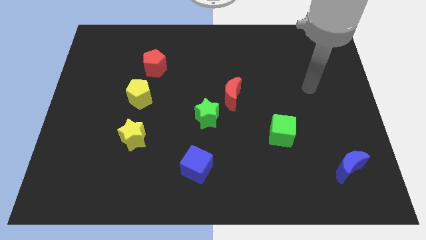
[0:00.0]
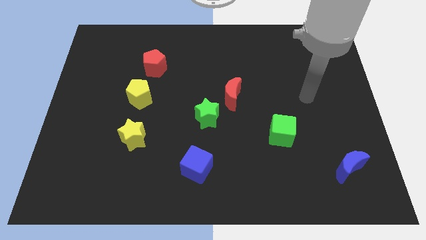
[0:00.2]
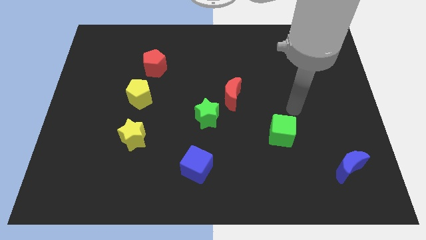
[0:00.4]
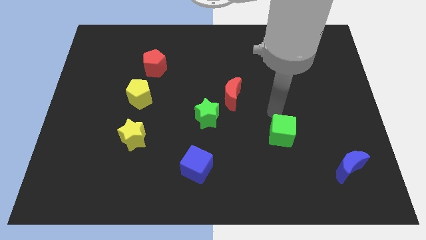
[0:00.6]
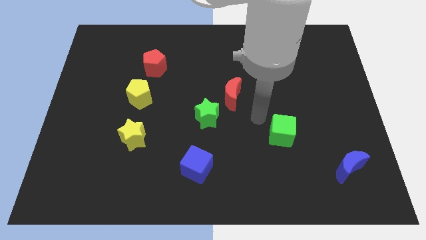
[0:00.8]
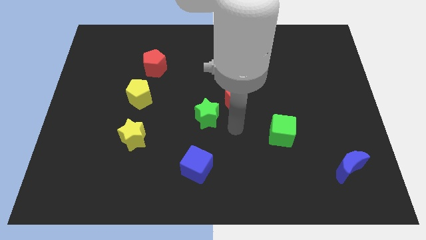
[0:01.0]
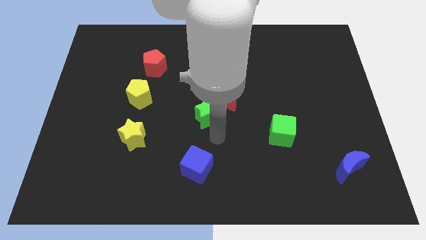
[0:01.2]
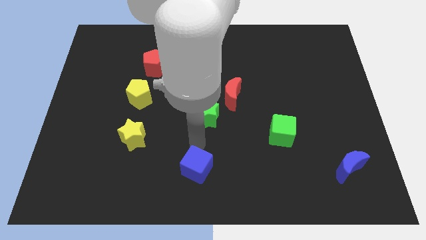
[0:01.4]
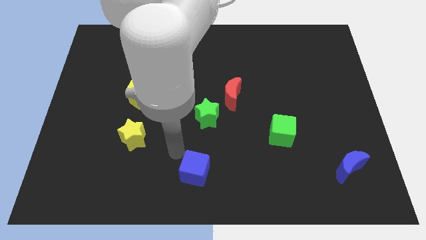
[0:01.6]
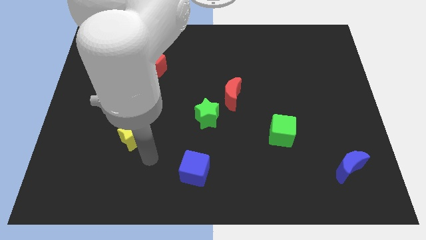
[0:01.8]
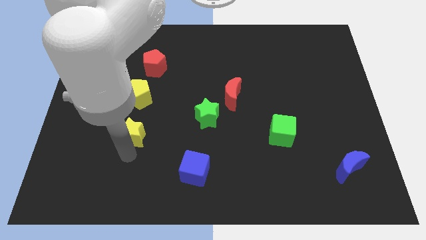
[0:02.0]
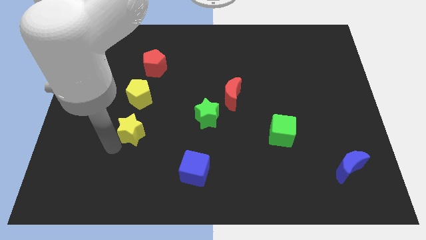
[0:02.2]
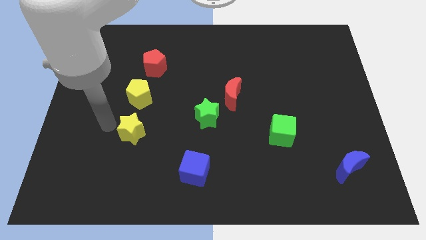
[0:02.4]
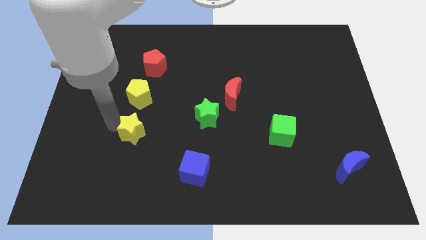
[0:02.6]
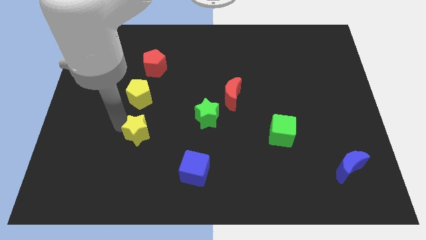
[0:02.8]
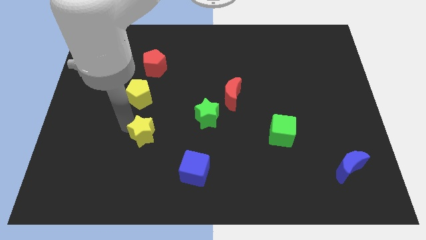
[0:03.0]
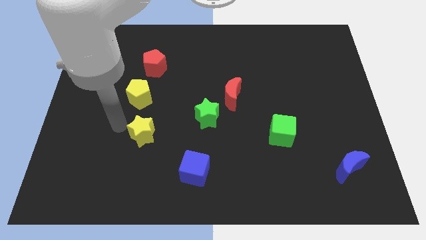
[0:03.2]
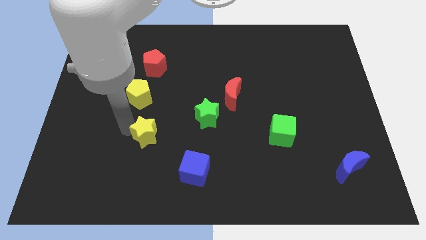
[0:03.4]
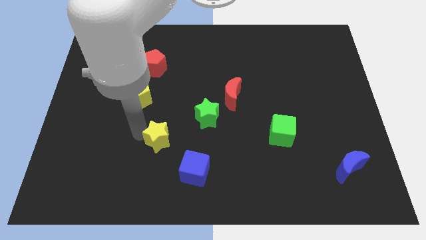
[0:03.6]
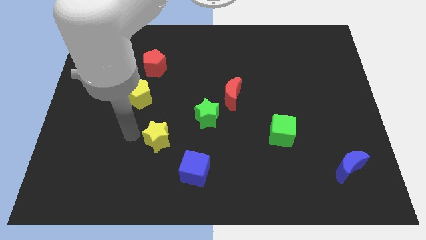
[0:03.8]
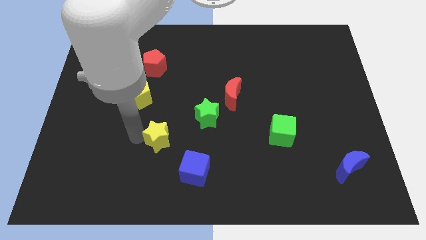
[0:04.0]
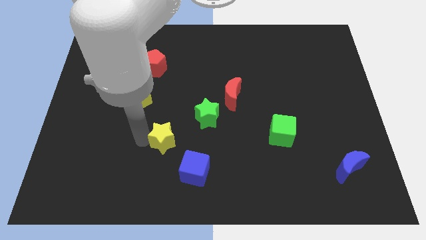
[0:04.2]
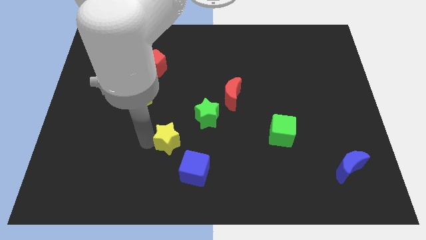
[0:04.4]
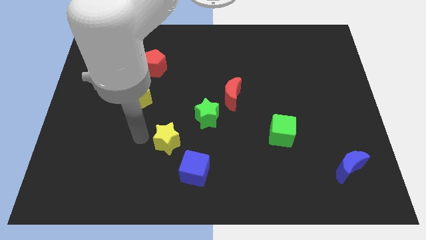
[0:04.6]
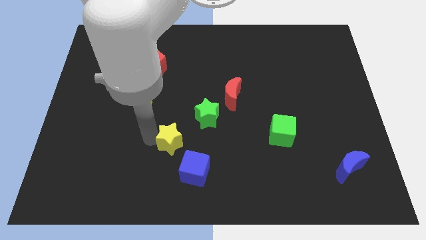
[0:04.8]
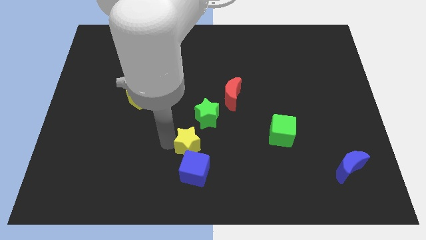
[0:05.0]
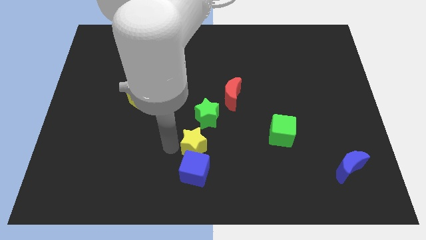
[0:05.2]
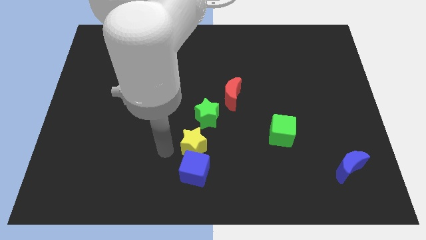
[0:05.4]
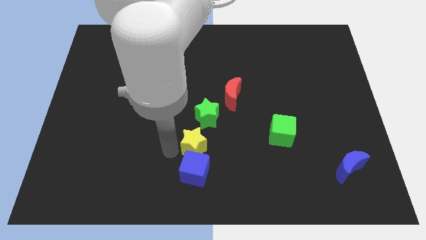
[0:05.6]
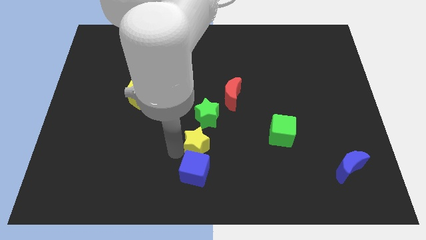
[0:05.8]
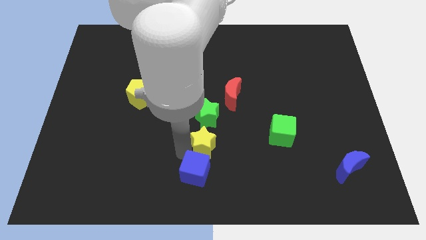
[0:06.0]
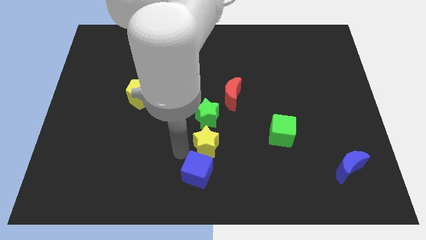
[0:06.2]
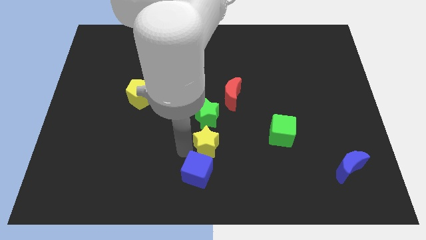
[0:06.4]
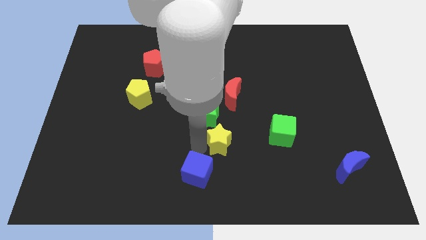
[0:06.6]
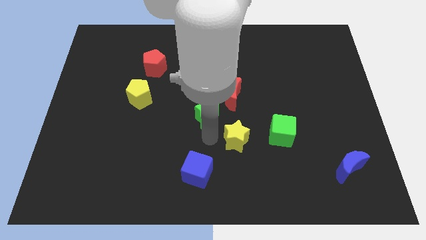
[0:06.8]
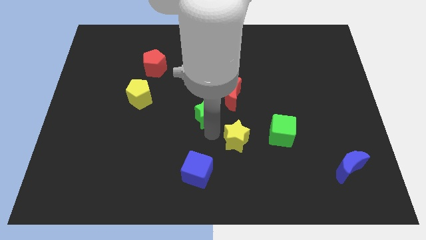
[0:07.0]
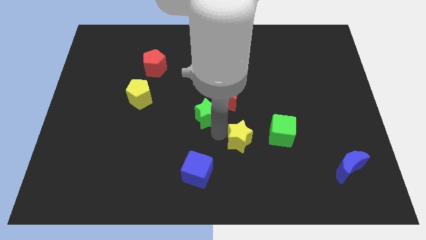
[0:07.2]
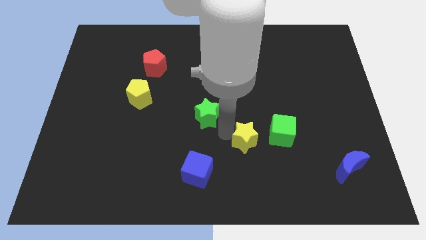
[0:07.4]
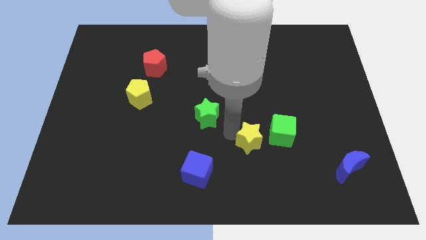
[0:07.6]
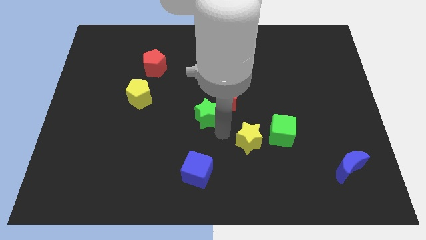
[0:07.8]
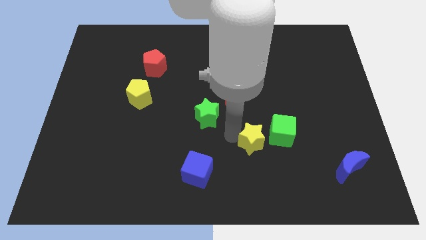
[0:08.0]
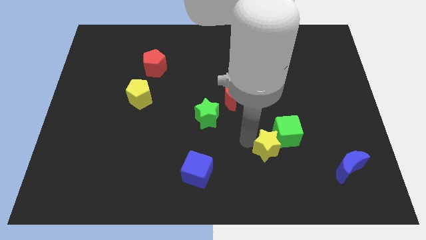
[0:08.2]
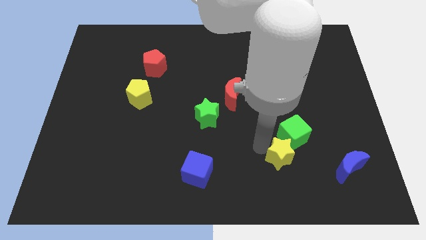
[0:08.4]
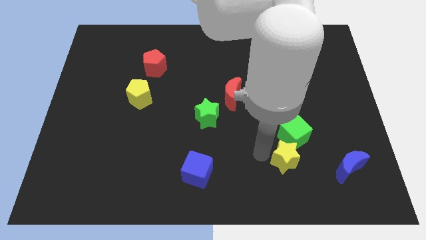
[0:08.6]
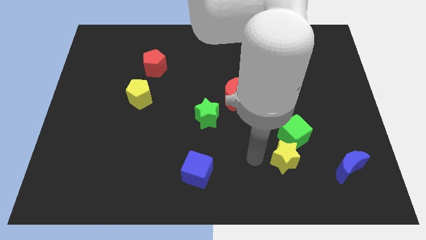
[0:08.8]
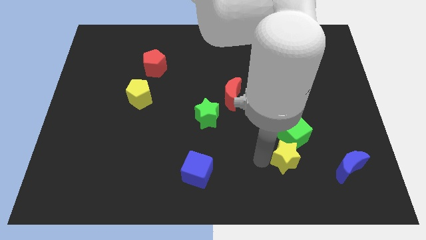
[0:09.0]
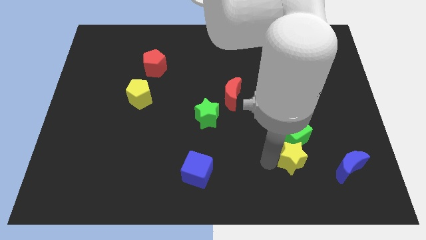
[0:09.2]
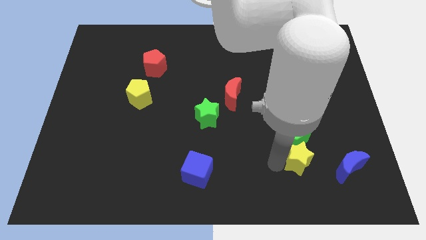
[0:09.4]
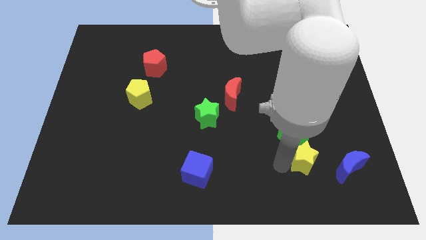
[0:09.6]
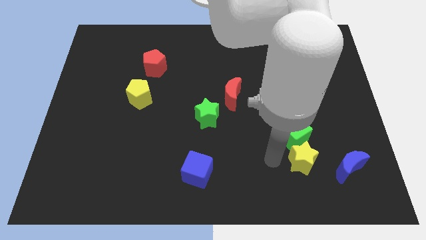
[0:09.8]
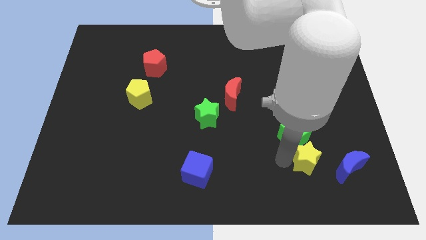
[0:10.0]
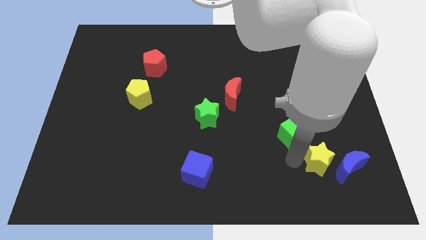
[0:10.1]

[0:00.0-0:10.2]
put the yellow star next to the blue moon

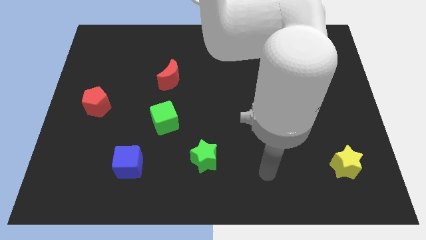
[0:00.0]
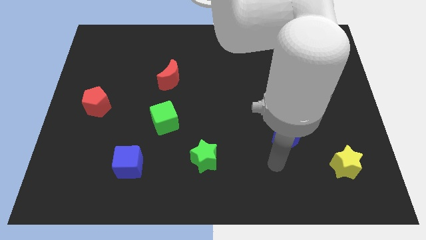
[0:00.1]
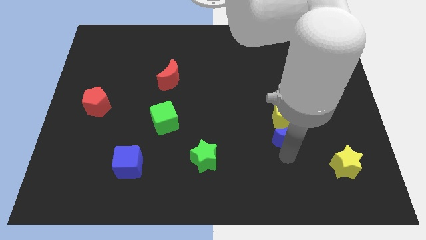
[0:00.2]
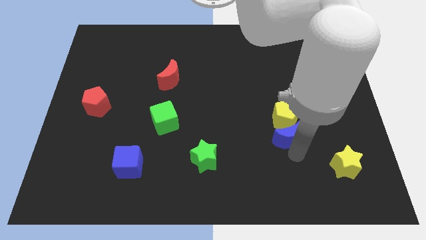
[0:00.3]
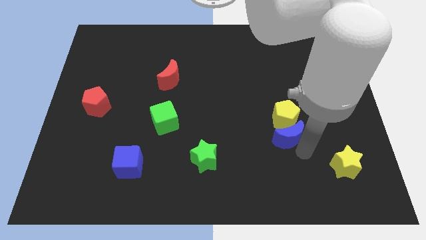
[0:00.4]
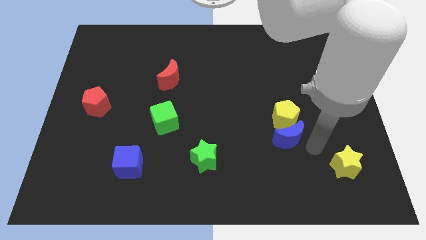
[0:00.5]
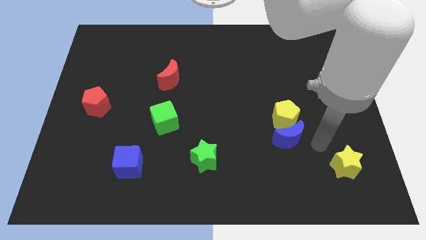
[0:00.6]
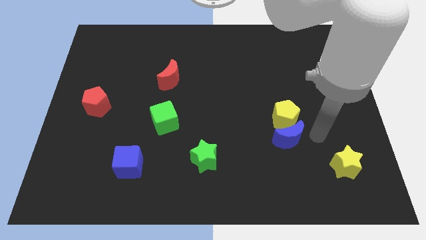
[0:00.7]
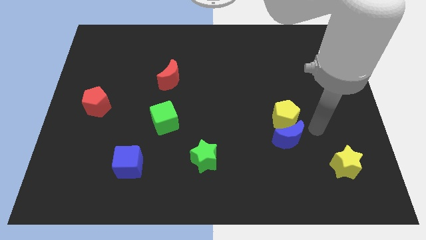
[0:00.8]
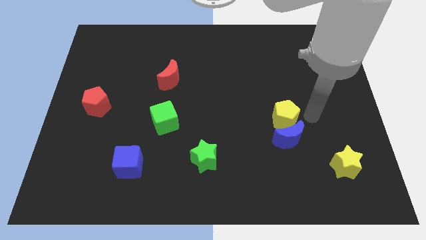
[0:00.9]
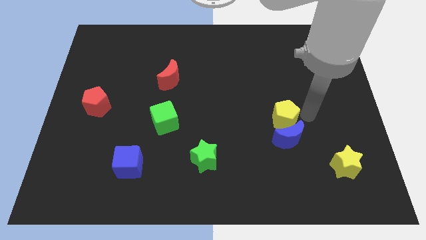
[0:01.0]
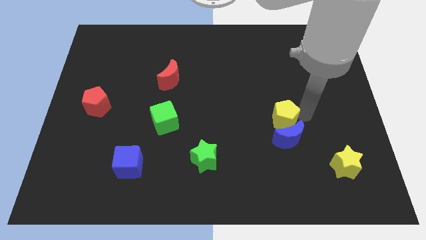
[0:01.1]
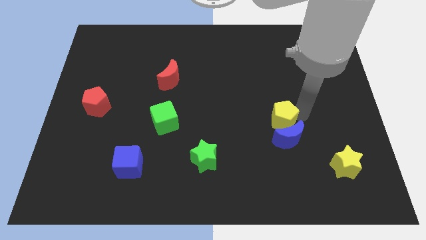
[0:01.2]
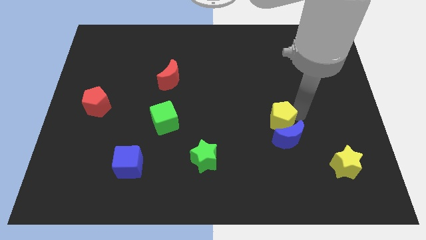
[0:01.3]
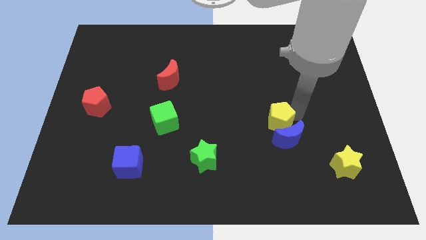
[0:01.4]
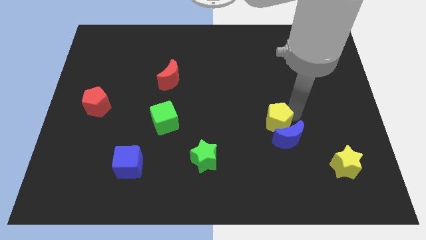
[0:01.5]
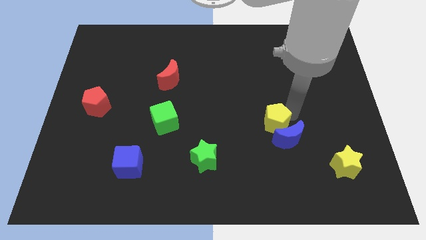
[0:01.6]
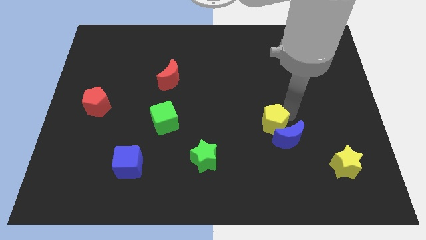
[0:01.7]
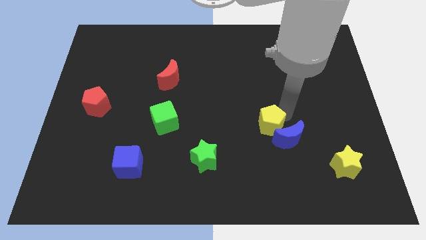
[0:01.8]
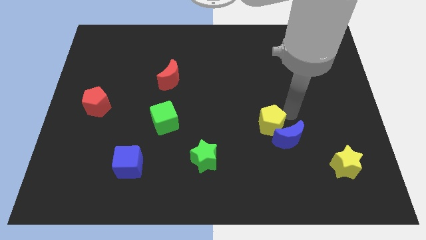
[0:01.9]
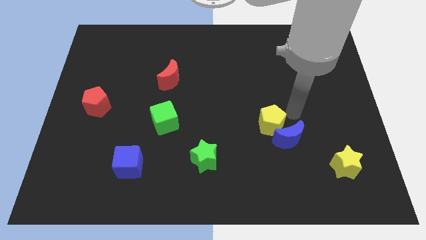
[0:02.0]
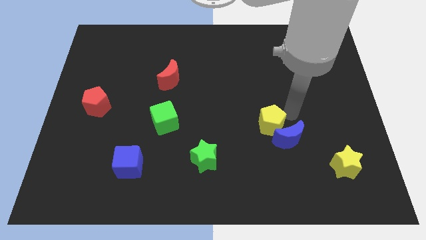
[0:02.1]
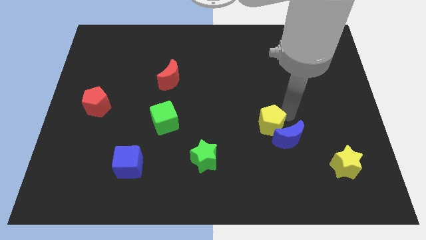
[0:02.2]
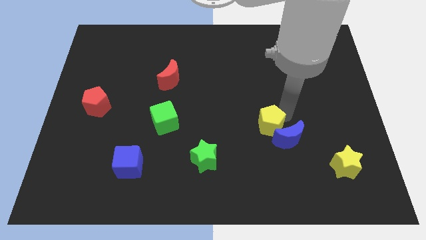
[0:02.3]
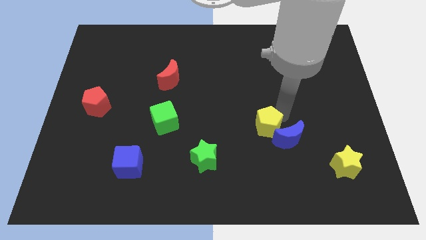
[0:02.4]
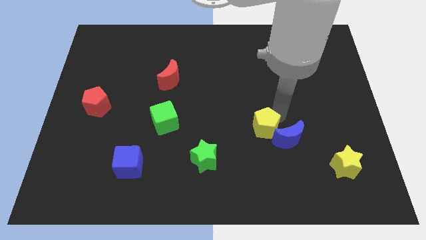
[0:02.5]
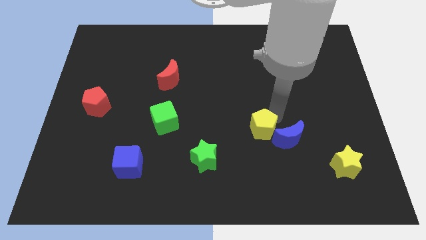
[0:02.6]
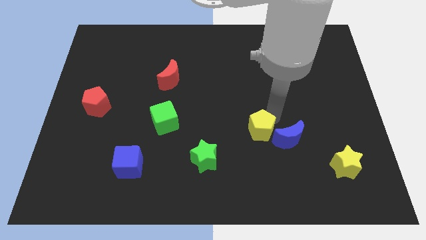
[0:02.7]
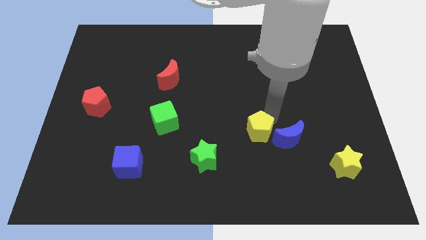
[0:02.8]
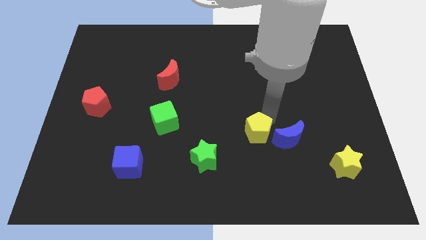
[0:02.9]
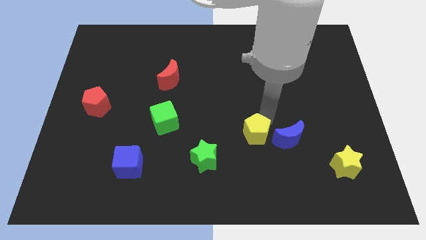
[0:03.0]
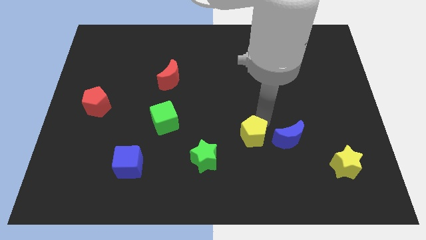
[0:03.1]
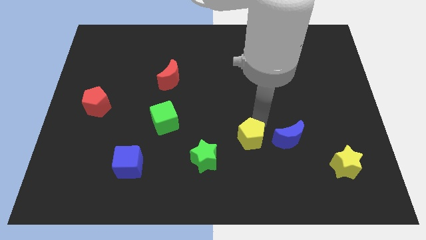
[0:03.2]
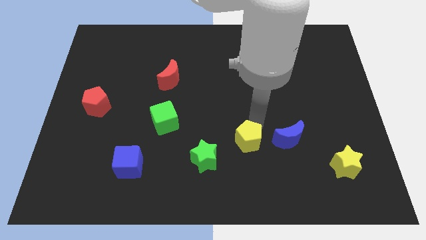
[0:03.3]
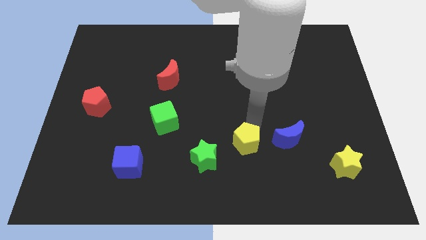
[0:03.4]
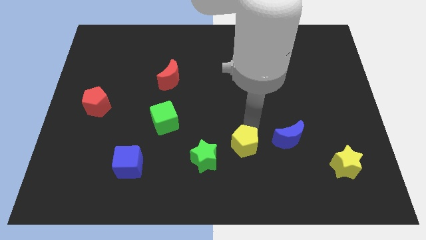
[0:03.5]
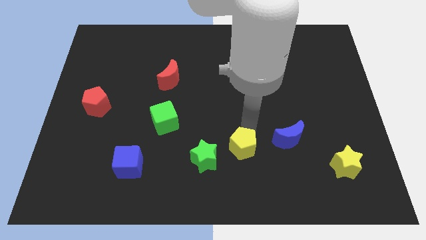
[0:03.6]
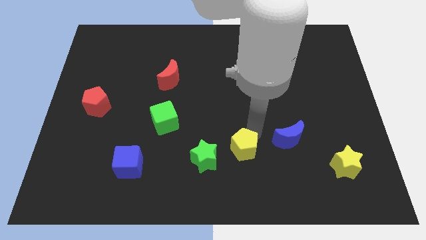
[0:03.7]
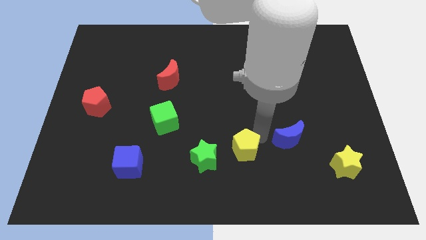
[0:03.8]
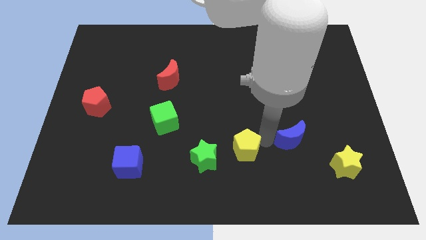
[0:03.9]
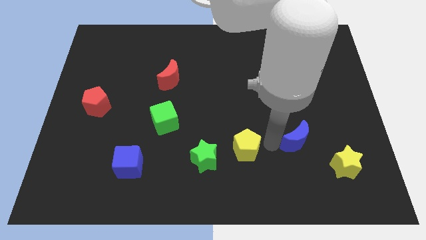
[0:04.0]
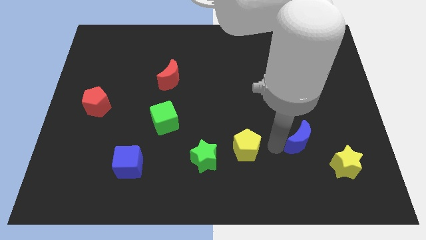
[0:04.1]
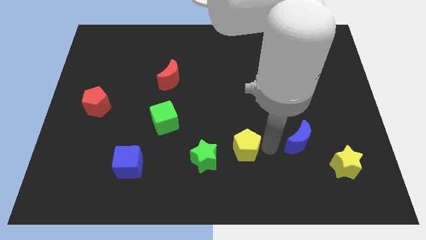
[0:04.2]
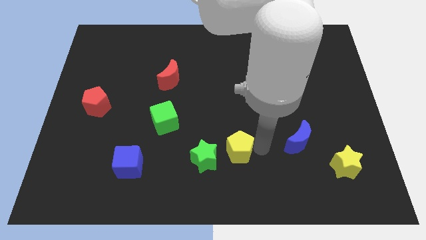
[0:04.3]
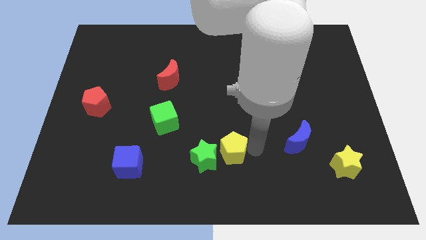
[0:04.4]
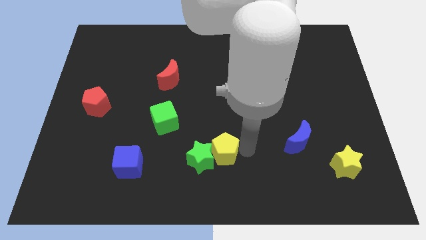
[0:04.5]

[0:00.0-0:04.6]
push the yellow pentagon to the green star
